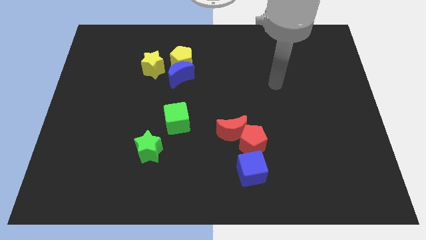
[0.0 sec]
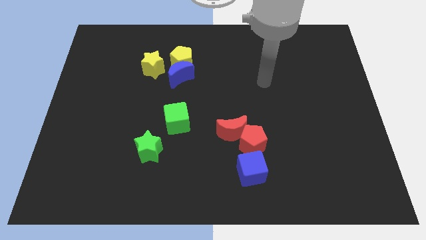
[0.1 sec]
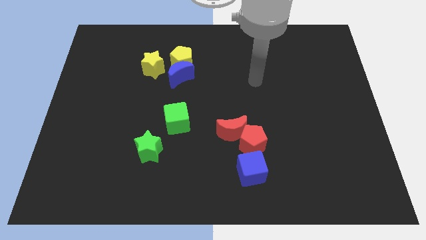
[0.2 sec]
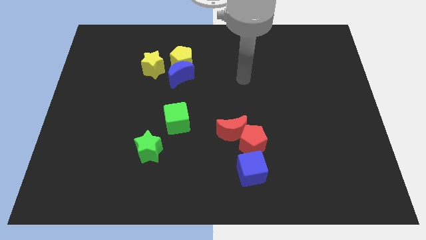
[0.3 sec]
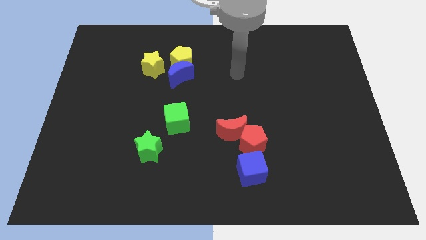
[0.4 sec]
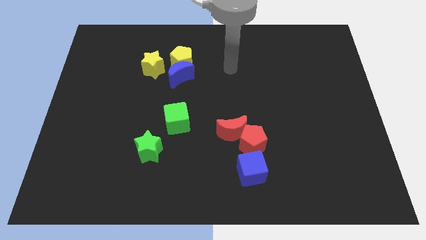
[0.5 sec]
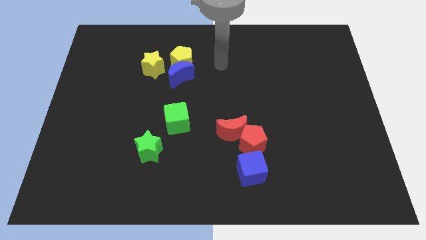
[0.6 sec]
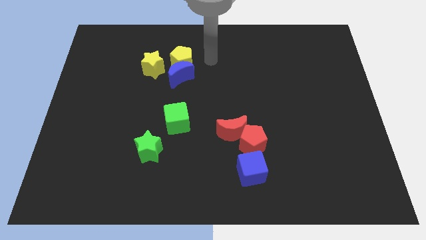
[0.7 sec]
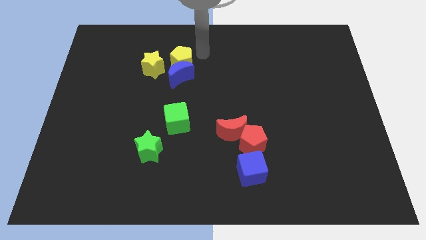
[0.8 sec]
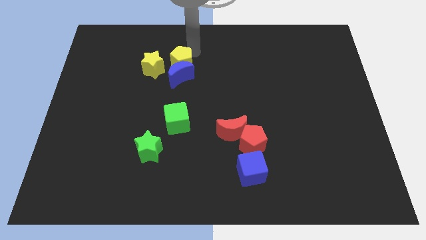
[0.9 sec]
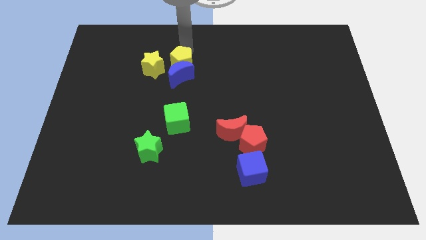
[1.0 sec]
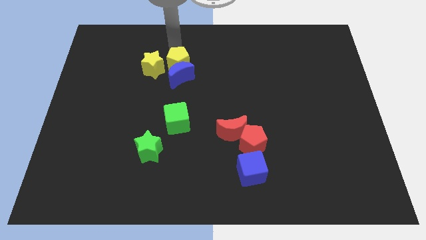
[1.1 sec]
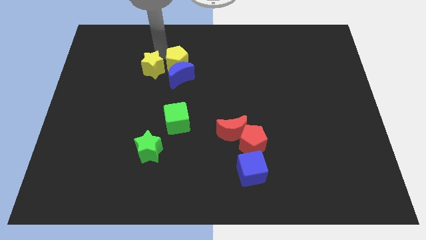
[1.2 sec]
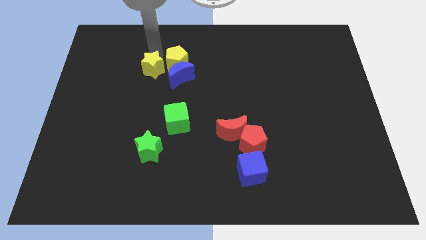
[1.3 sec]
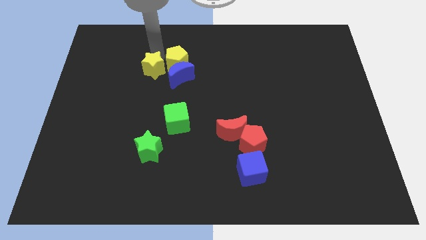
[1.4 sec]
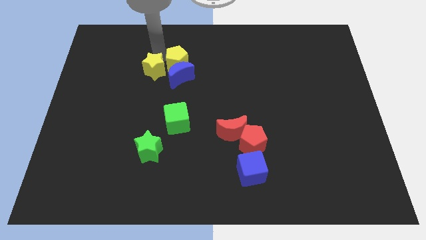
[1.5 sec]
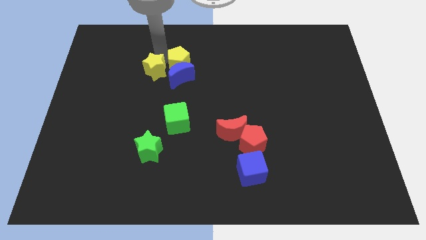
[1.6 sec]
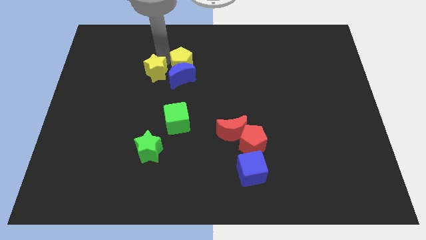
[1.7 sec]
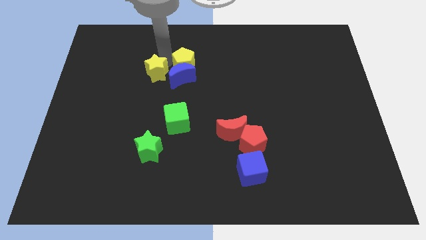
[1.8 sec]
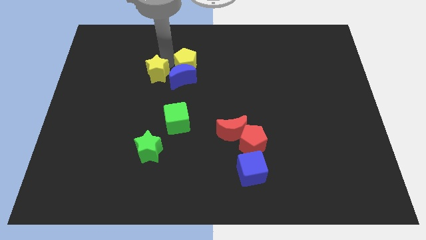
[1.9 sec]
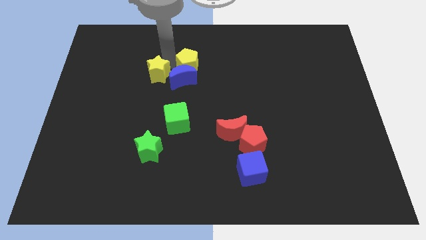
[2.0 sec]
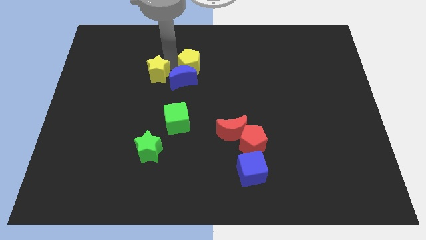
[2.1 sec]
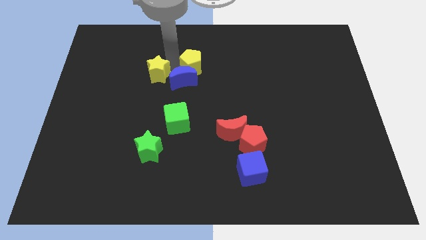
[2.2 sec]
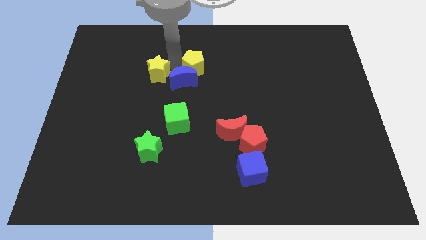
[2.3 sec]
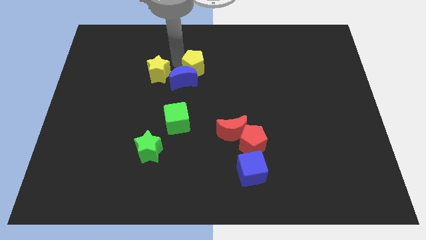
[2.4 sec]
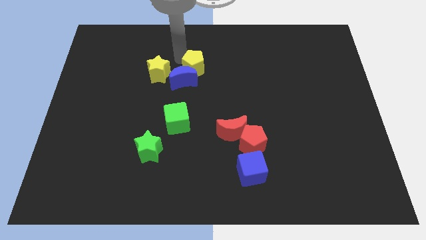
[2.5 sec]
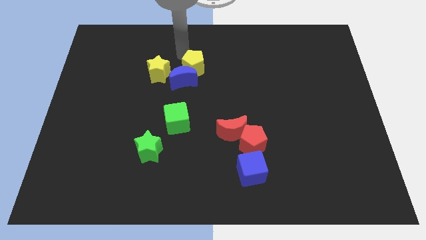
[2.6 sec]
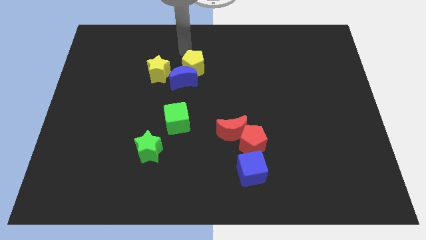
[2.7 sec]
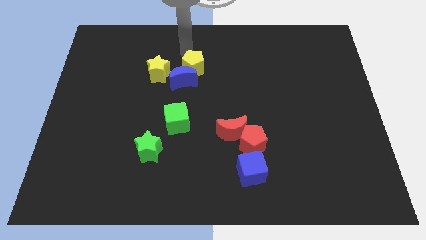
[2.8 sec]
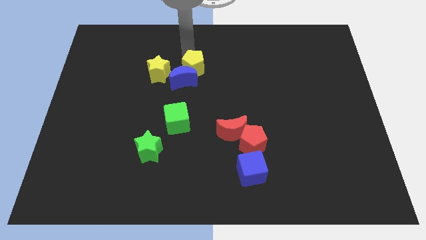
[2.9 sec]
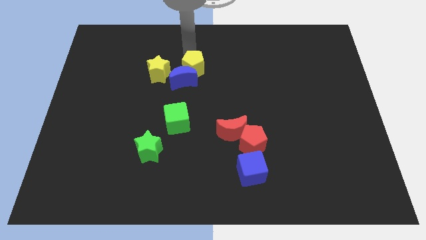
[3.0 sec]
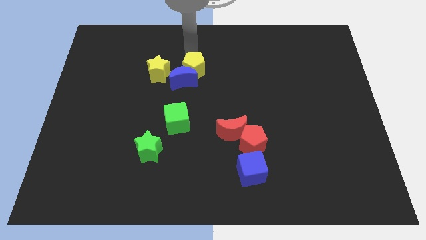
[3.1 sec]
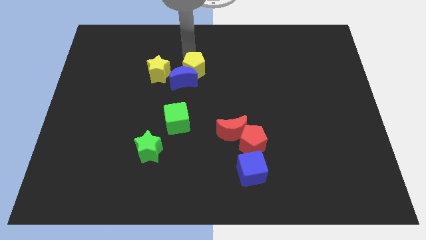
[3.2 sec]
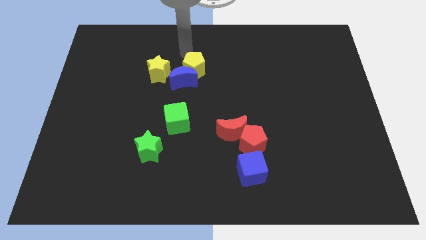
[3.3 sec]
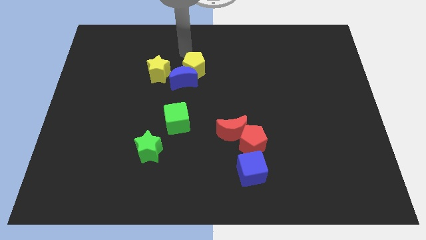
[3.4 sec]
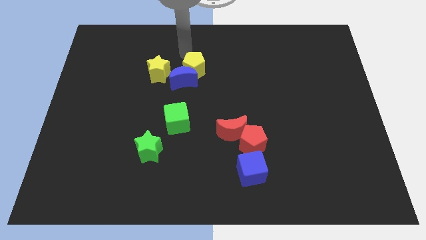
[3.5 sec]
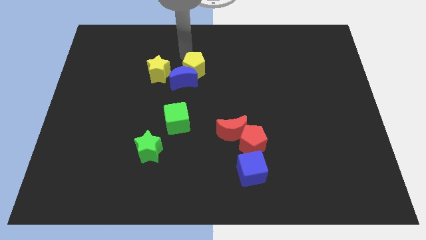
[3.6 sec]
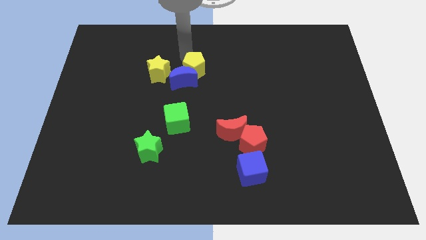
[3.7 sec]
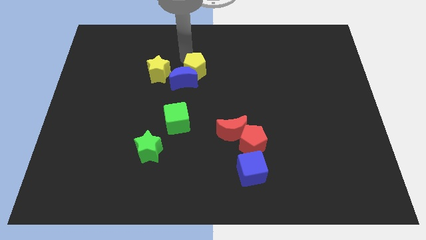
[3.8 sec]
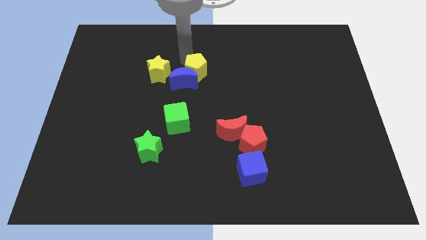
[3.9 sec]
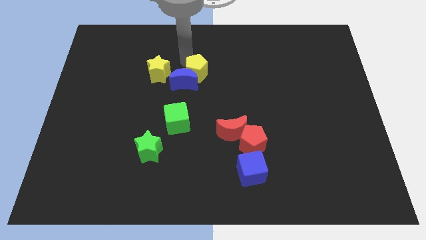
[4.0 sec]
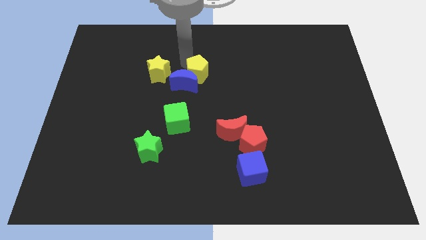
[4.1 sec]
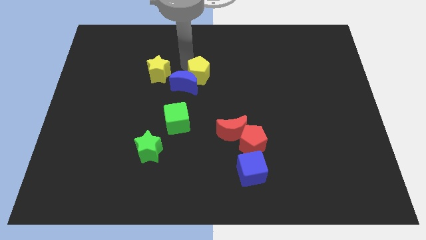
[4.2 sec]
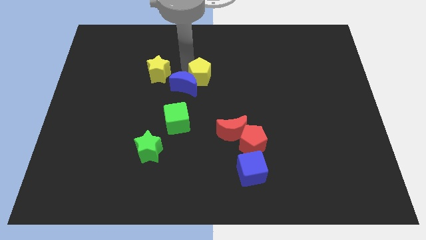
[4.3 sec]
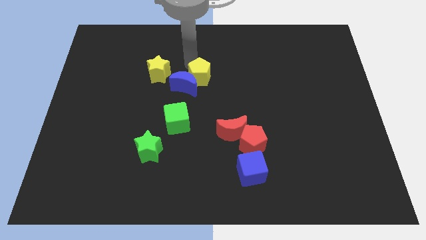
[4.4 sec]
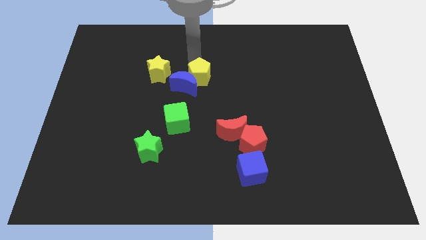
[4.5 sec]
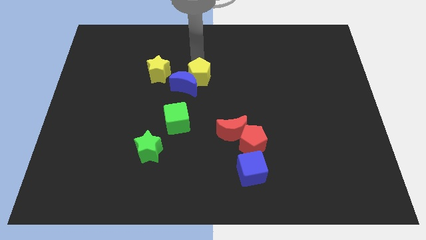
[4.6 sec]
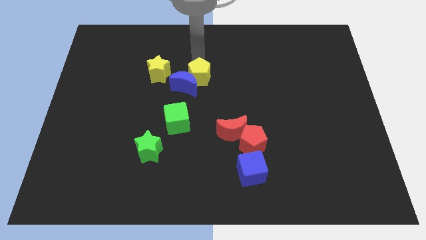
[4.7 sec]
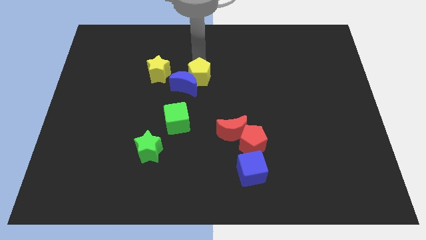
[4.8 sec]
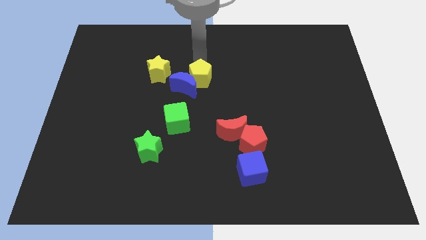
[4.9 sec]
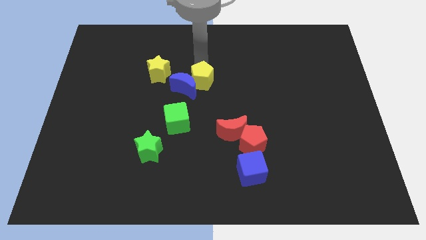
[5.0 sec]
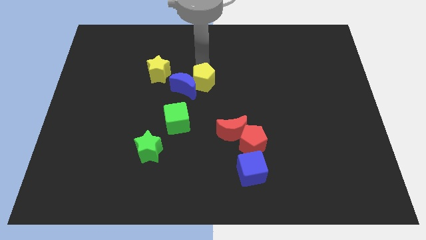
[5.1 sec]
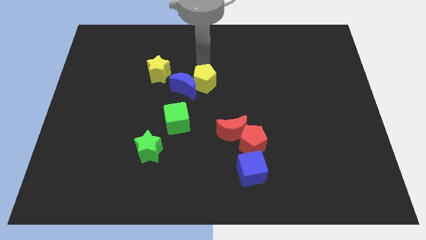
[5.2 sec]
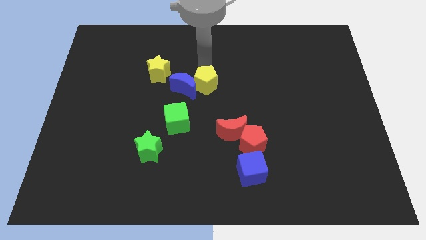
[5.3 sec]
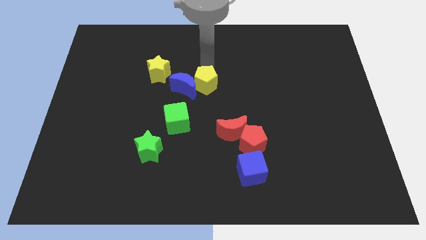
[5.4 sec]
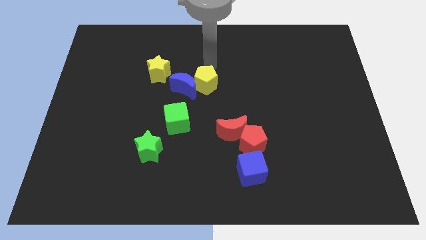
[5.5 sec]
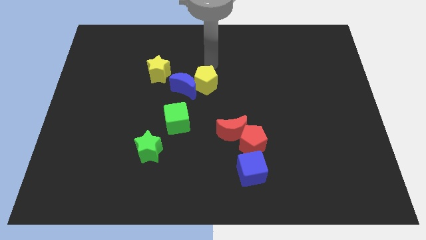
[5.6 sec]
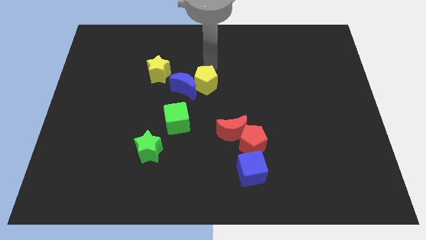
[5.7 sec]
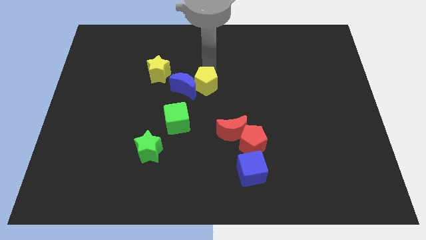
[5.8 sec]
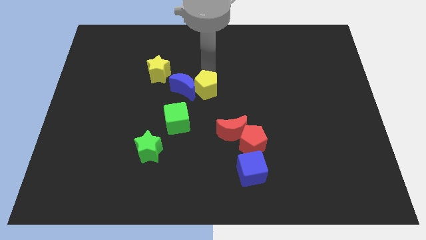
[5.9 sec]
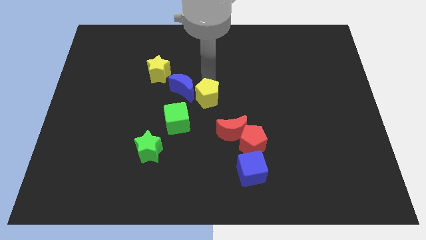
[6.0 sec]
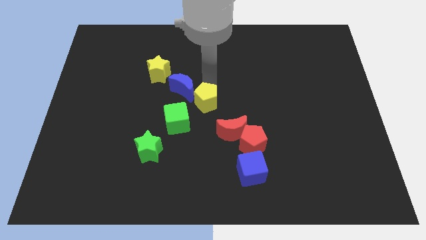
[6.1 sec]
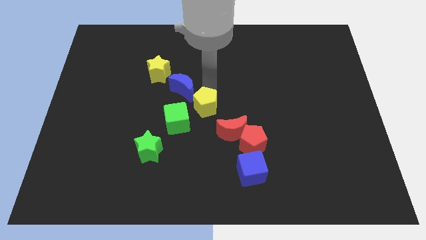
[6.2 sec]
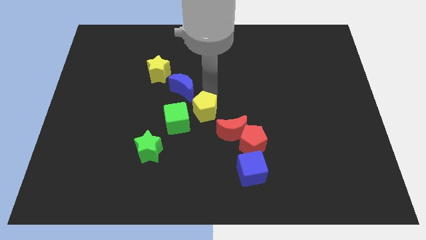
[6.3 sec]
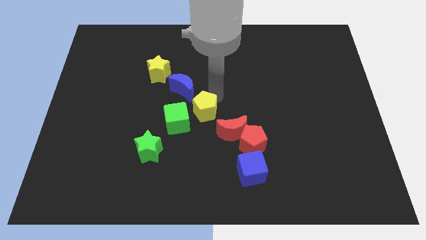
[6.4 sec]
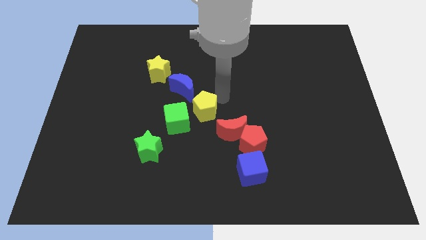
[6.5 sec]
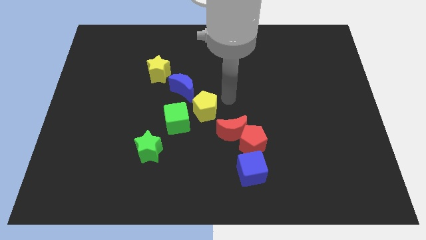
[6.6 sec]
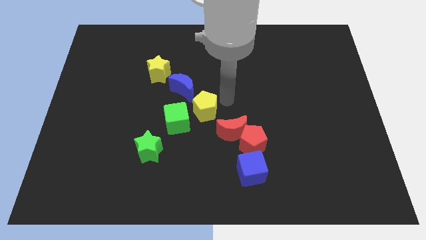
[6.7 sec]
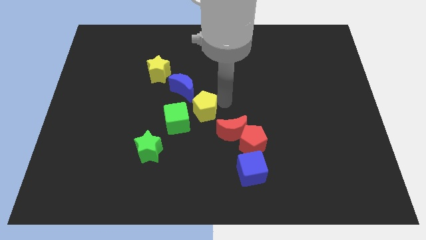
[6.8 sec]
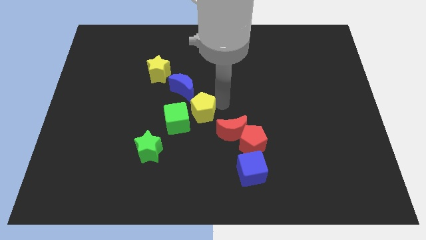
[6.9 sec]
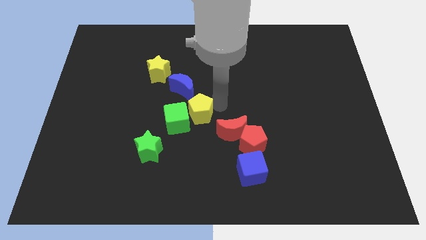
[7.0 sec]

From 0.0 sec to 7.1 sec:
move the yellow pentagon close to the green cube

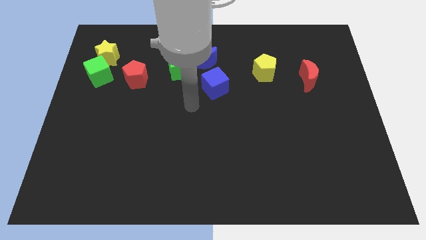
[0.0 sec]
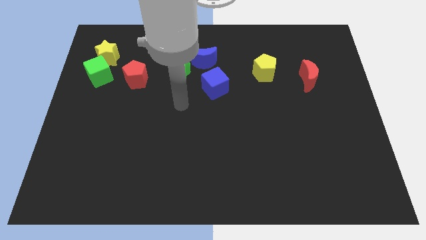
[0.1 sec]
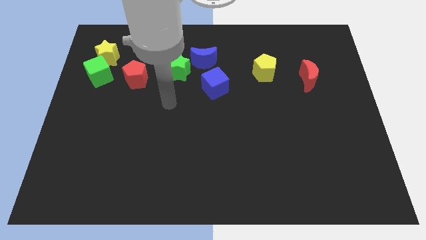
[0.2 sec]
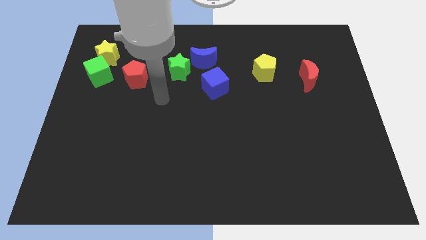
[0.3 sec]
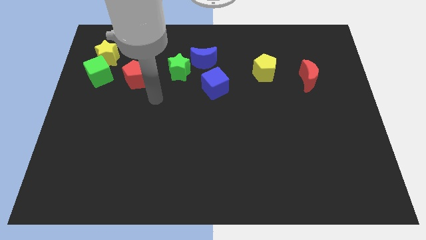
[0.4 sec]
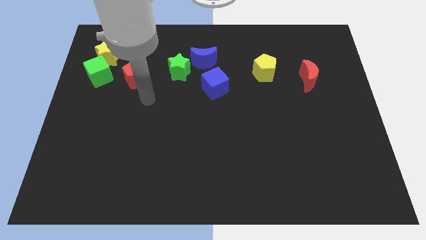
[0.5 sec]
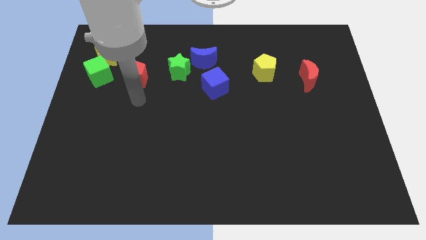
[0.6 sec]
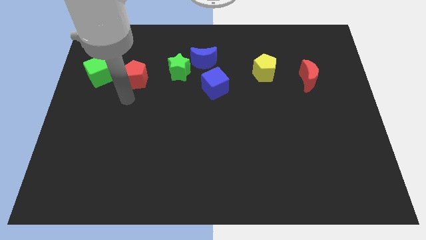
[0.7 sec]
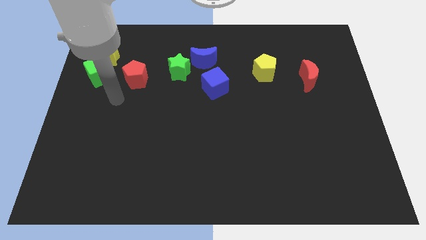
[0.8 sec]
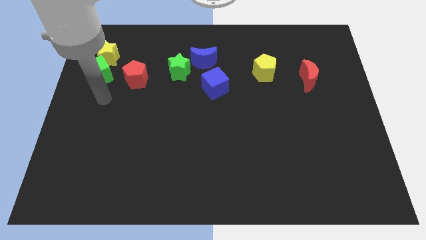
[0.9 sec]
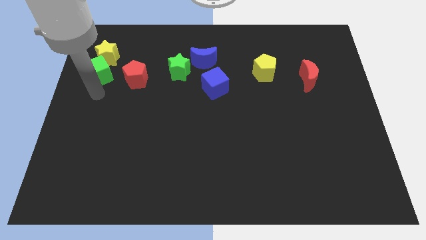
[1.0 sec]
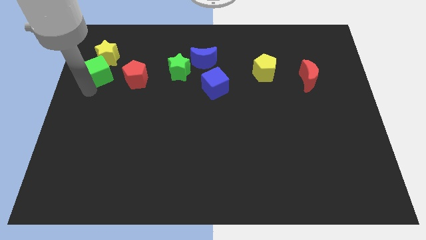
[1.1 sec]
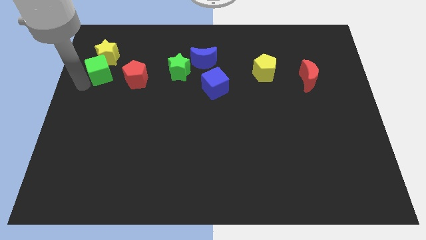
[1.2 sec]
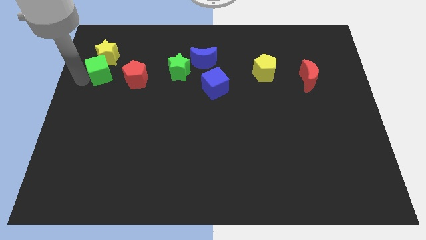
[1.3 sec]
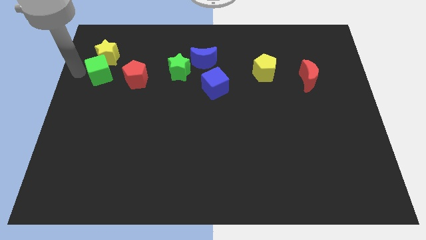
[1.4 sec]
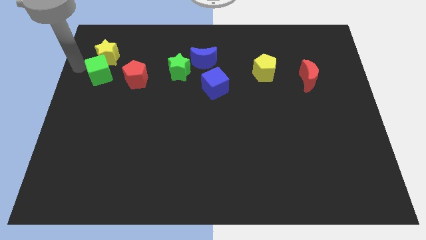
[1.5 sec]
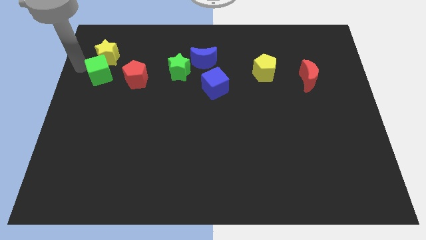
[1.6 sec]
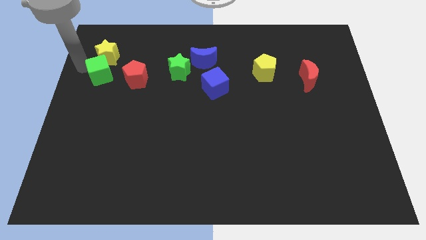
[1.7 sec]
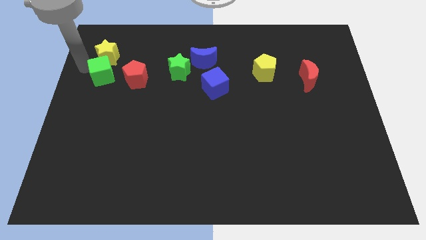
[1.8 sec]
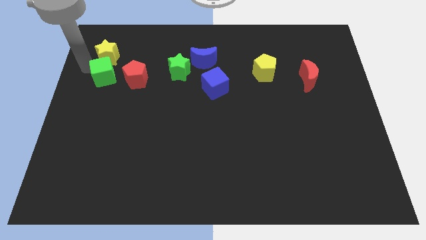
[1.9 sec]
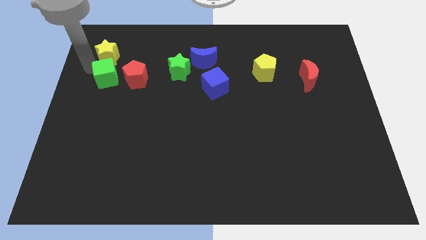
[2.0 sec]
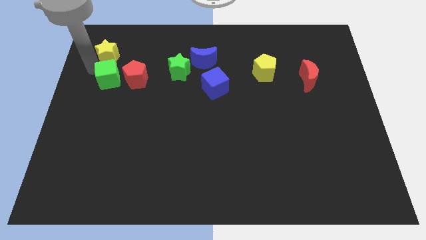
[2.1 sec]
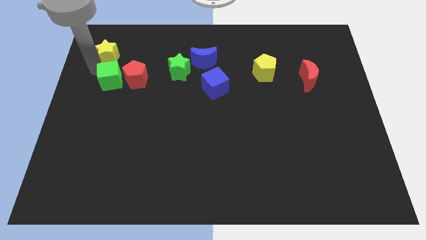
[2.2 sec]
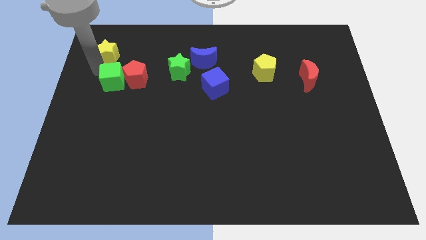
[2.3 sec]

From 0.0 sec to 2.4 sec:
put the green cube towards the red pentagon
